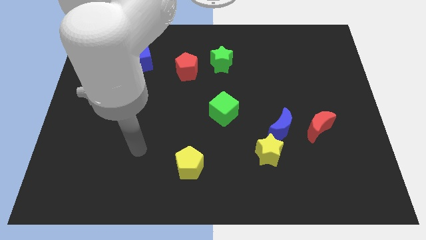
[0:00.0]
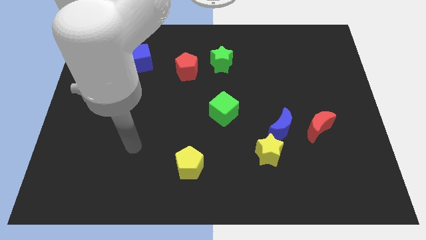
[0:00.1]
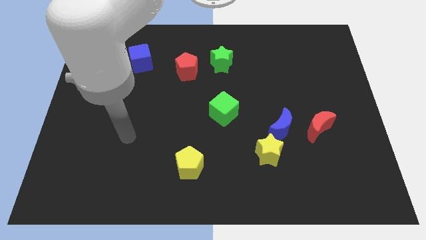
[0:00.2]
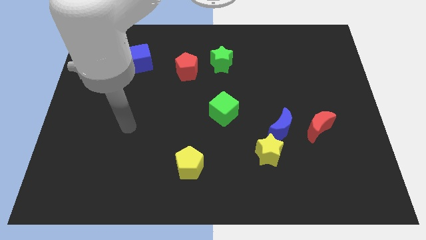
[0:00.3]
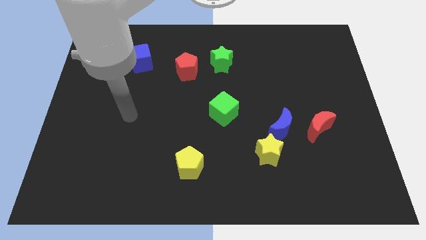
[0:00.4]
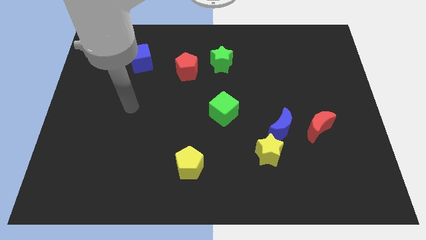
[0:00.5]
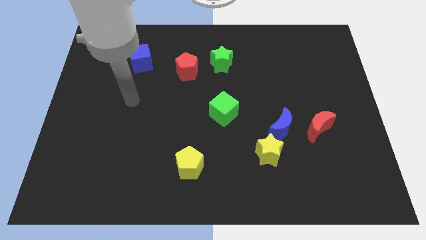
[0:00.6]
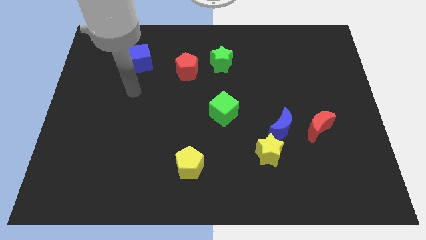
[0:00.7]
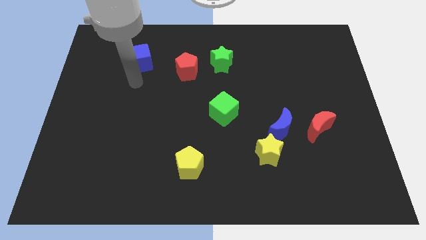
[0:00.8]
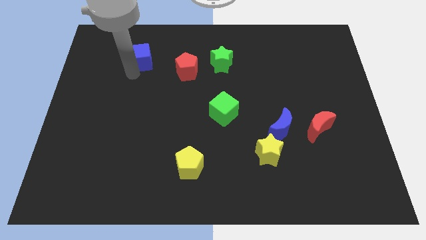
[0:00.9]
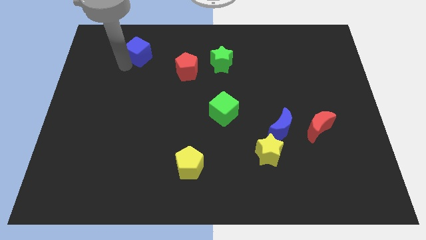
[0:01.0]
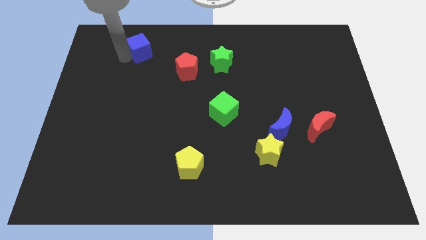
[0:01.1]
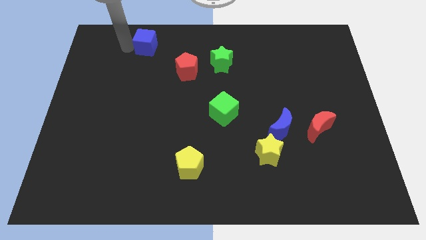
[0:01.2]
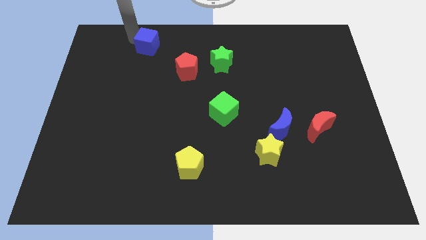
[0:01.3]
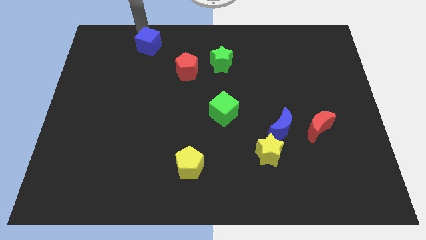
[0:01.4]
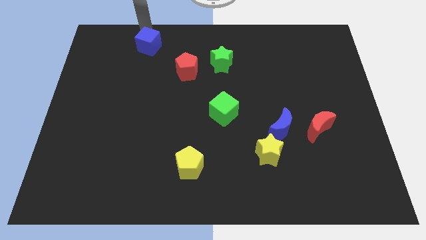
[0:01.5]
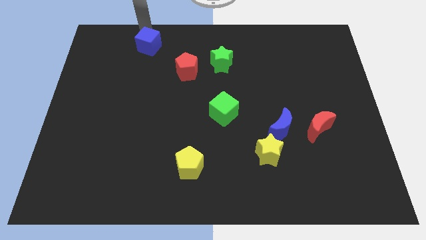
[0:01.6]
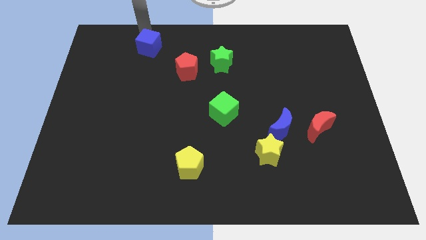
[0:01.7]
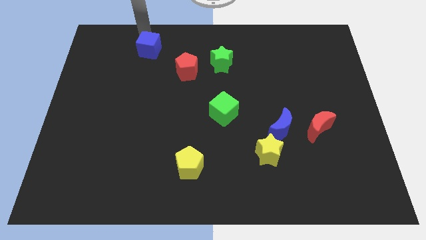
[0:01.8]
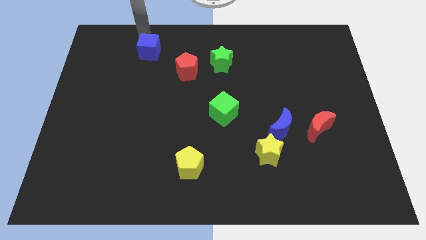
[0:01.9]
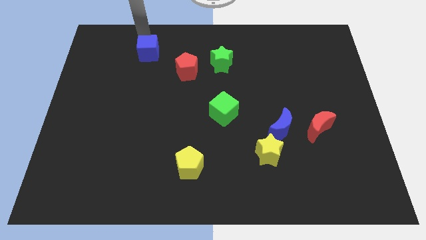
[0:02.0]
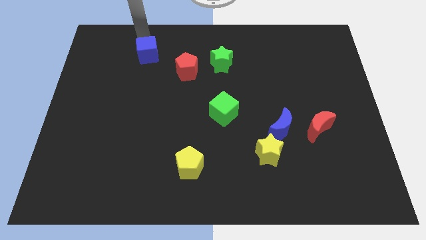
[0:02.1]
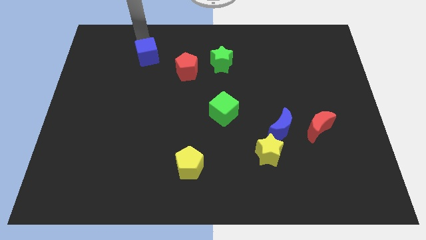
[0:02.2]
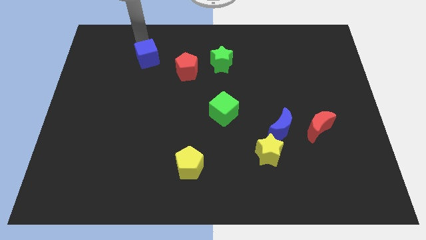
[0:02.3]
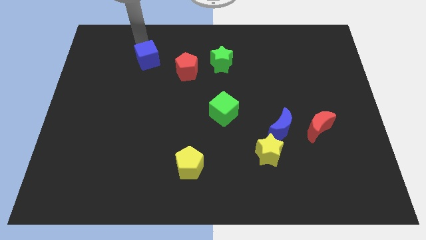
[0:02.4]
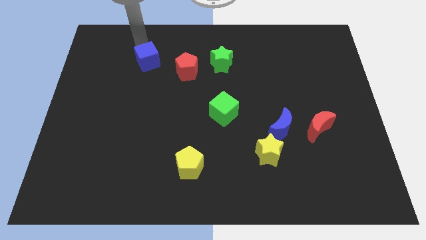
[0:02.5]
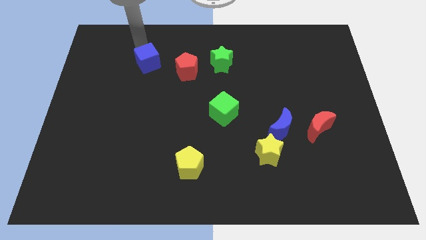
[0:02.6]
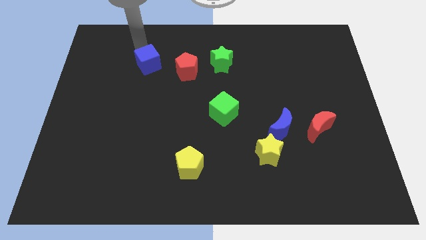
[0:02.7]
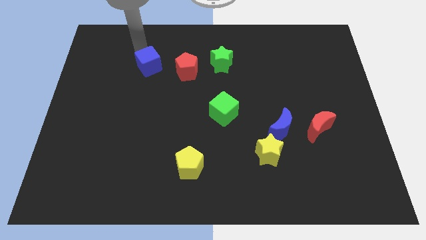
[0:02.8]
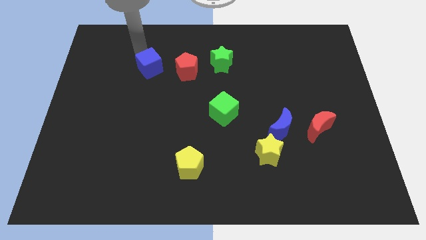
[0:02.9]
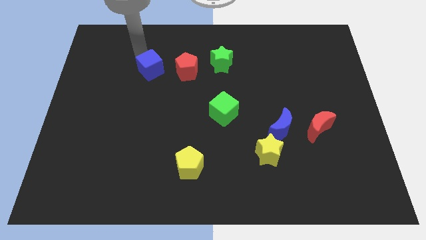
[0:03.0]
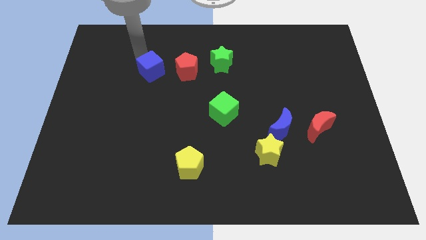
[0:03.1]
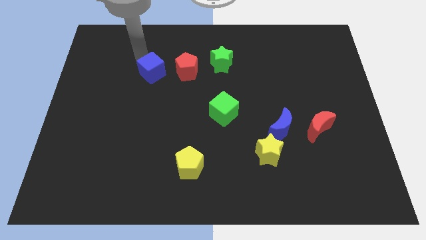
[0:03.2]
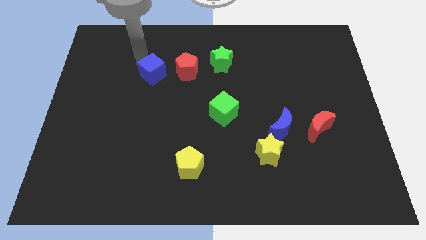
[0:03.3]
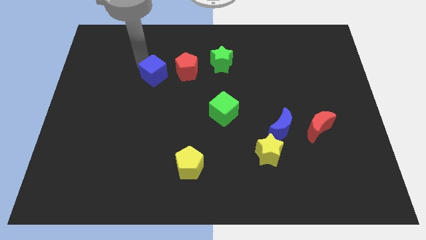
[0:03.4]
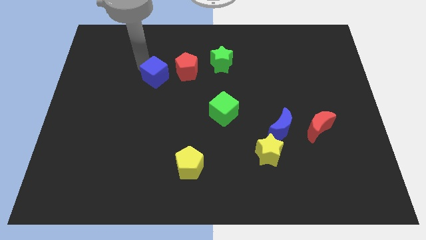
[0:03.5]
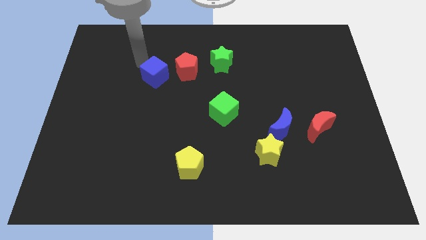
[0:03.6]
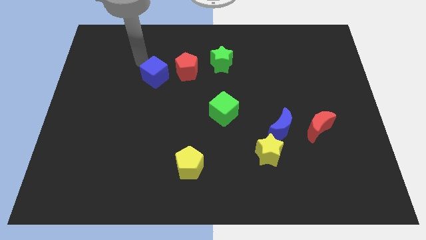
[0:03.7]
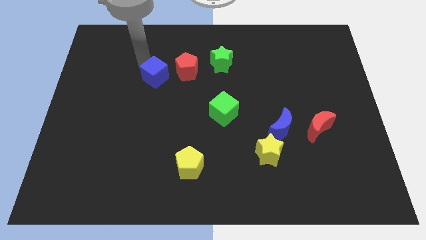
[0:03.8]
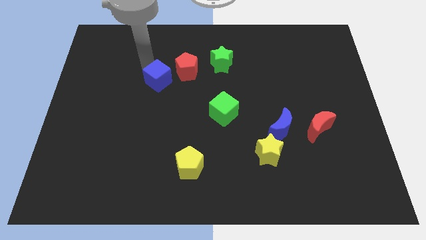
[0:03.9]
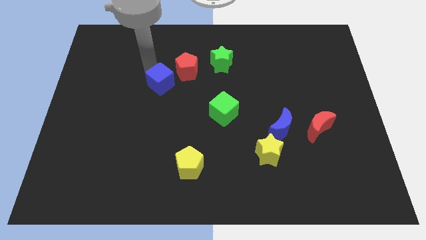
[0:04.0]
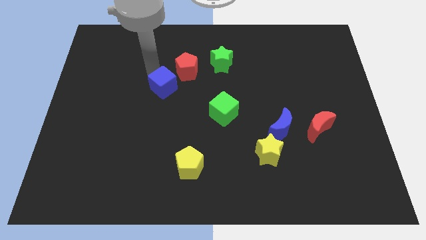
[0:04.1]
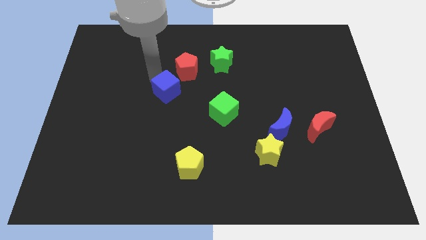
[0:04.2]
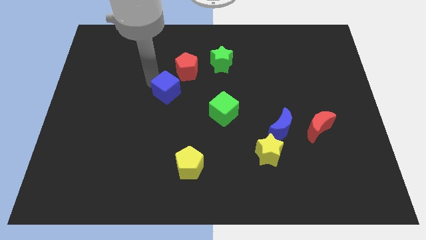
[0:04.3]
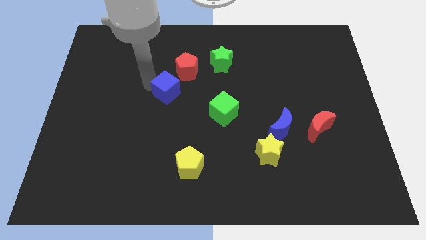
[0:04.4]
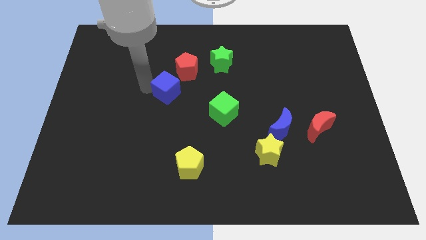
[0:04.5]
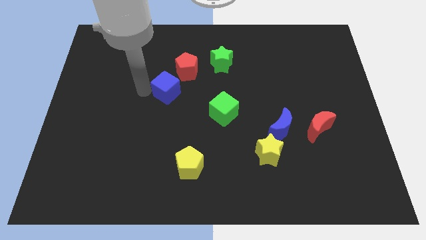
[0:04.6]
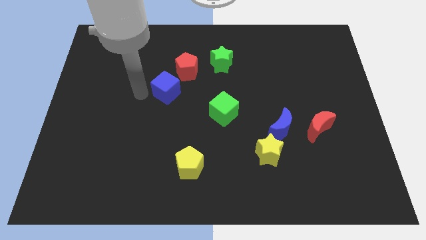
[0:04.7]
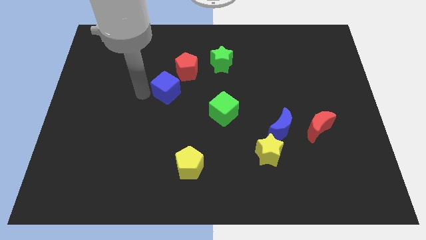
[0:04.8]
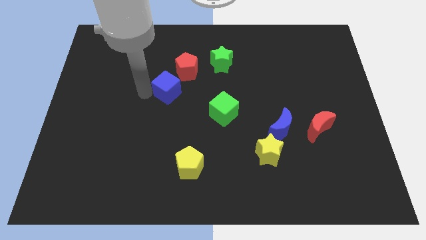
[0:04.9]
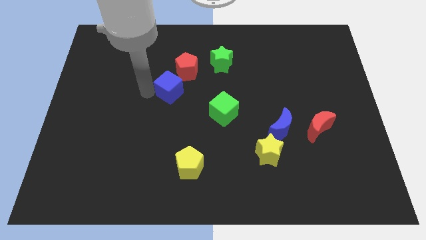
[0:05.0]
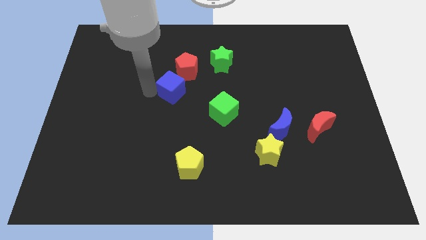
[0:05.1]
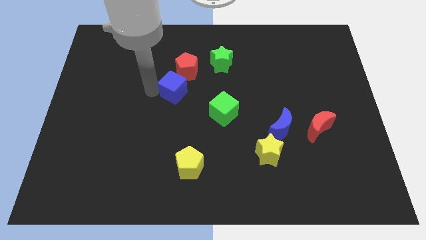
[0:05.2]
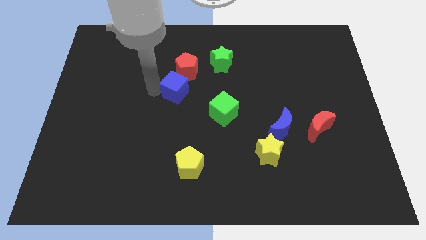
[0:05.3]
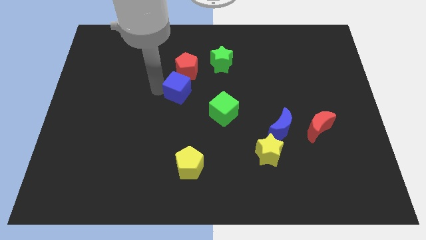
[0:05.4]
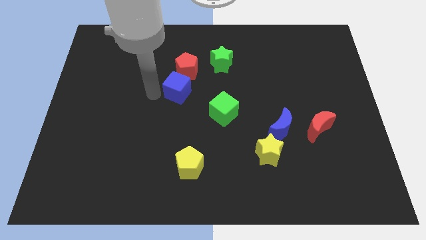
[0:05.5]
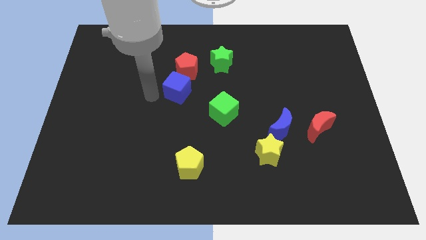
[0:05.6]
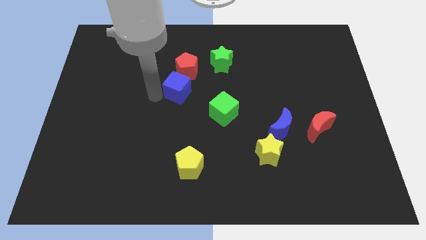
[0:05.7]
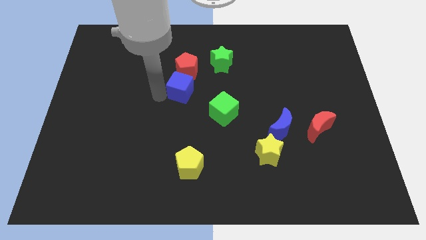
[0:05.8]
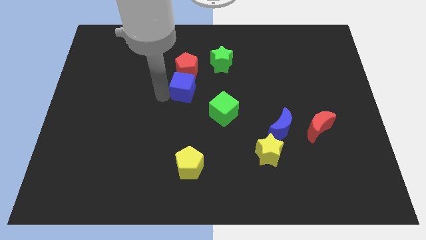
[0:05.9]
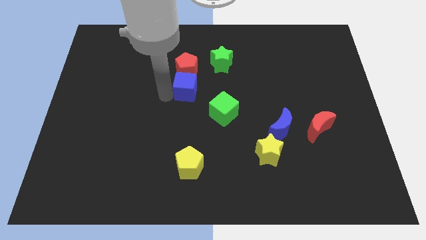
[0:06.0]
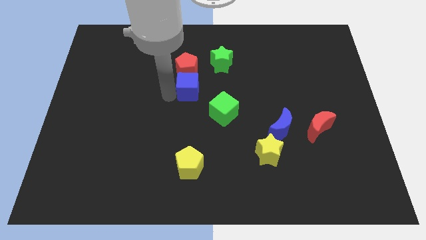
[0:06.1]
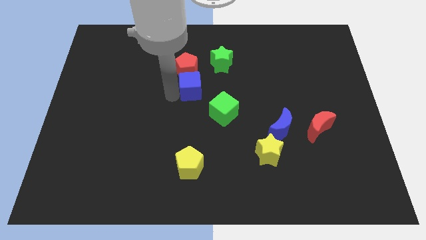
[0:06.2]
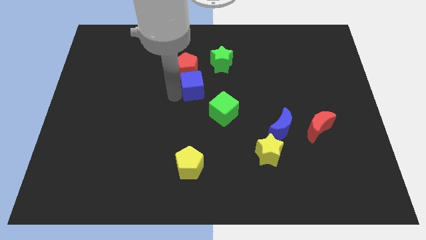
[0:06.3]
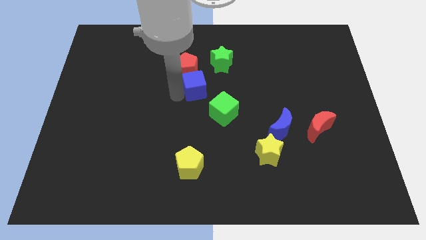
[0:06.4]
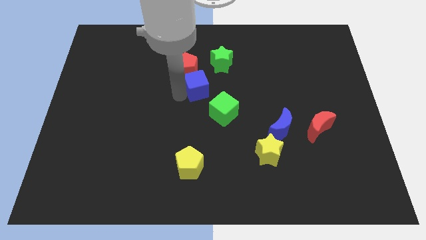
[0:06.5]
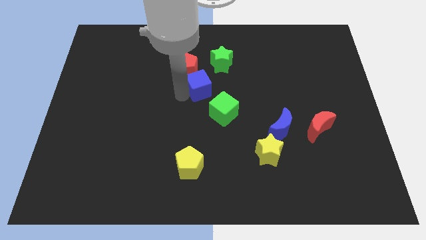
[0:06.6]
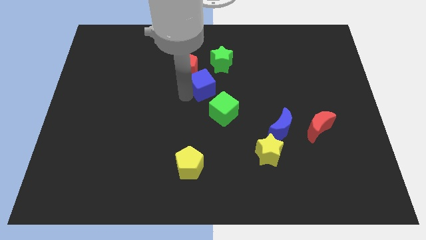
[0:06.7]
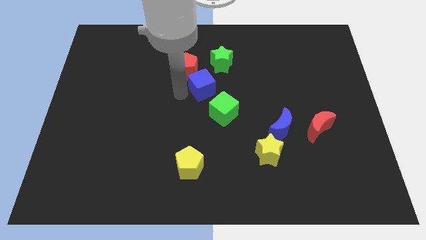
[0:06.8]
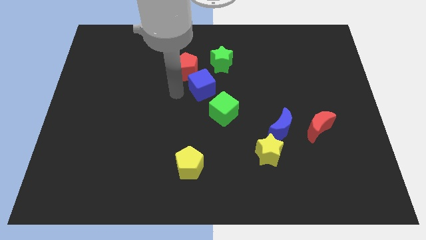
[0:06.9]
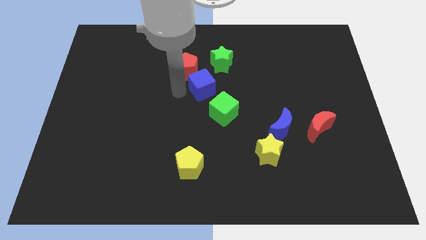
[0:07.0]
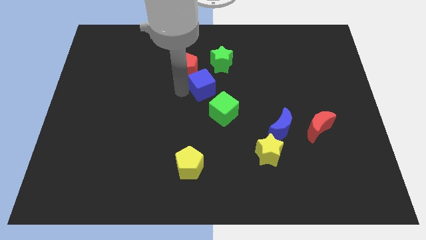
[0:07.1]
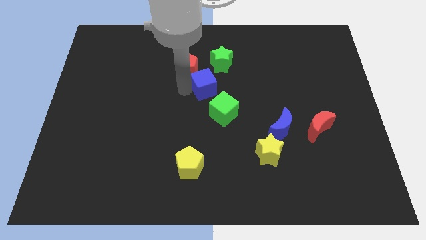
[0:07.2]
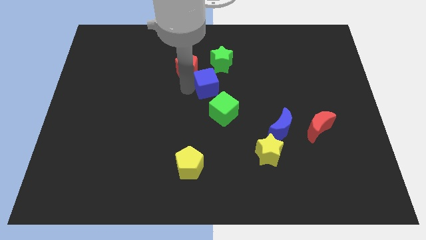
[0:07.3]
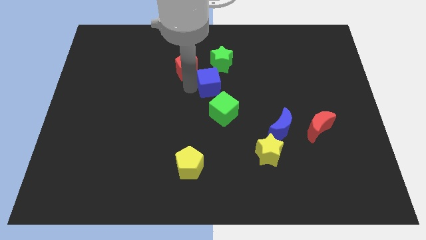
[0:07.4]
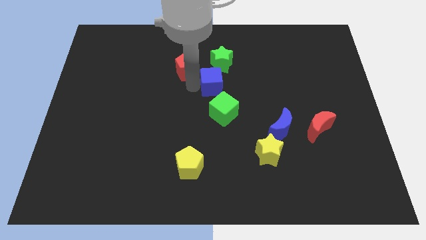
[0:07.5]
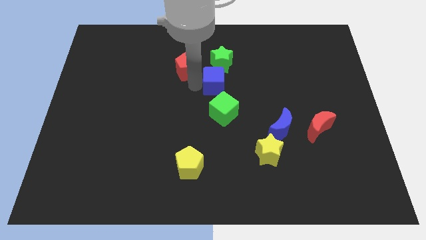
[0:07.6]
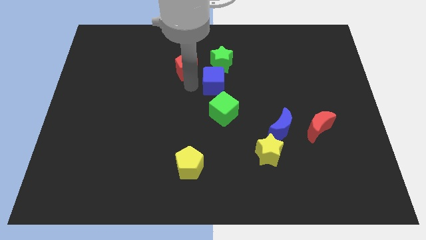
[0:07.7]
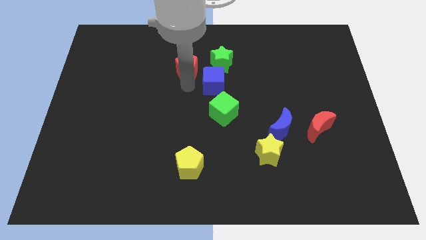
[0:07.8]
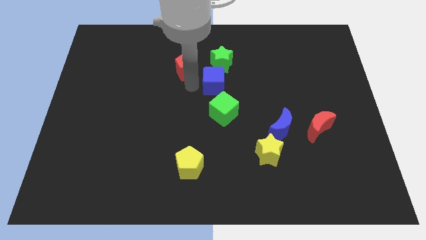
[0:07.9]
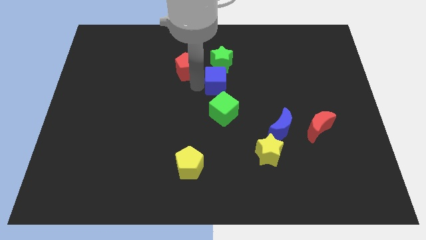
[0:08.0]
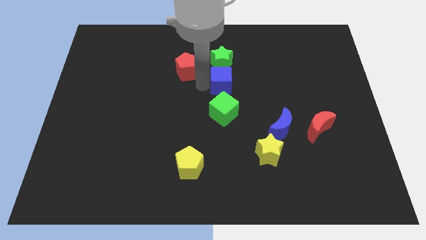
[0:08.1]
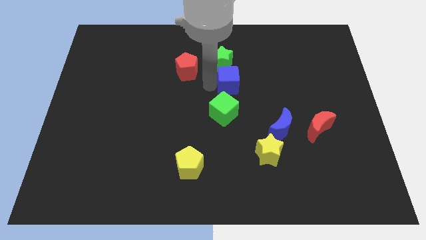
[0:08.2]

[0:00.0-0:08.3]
put the blue cube to the bottom right of the green star
